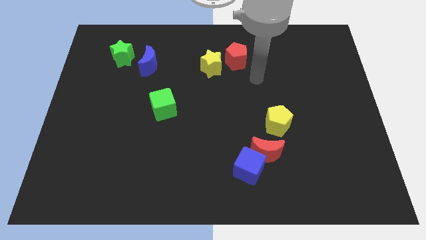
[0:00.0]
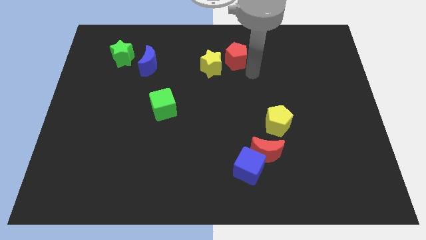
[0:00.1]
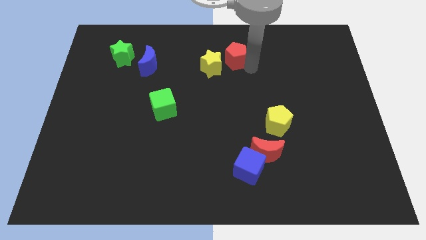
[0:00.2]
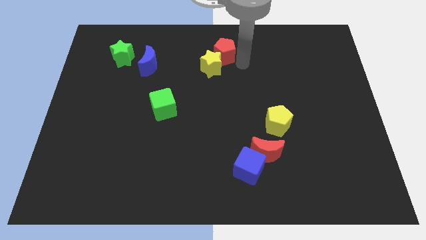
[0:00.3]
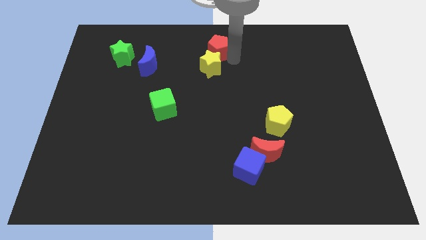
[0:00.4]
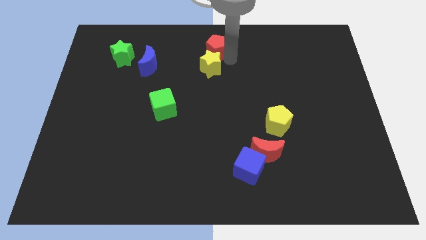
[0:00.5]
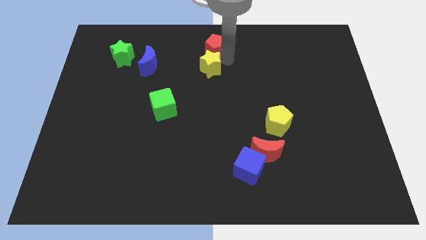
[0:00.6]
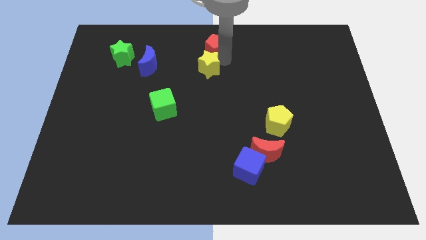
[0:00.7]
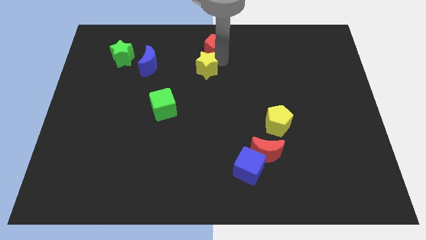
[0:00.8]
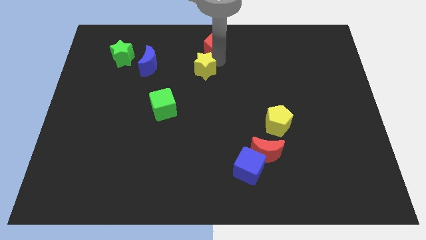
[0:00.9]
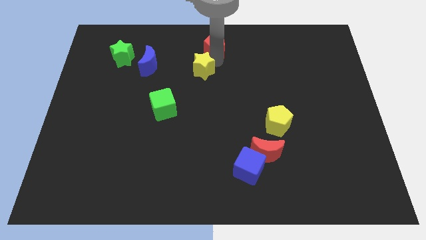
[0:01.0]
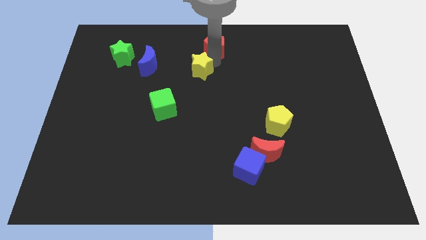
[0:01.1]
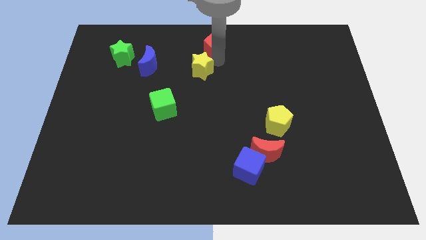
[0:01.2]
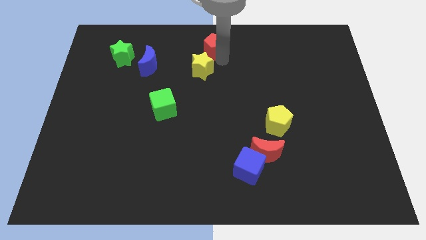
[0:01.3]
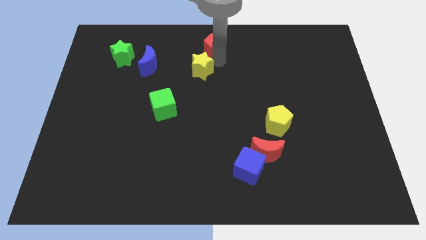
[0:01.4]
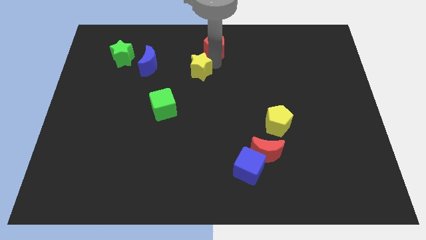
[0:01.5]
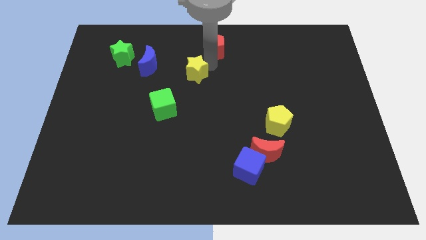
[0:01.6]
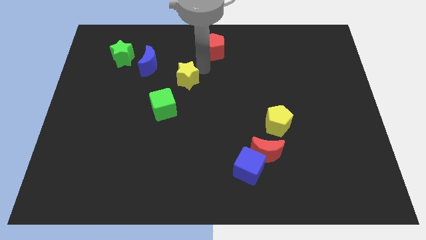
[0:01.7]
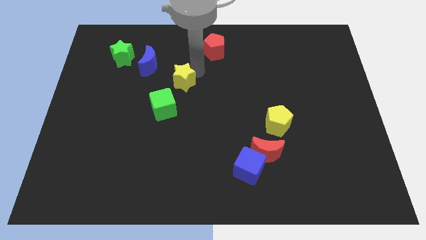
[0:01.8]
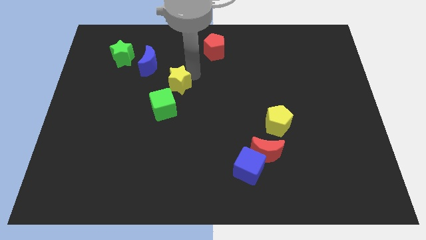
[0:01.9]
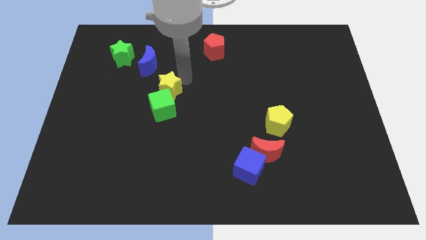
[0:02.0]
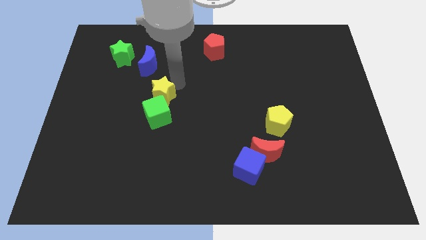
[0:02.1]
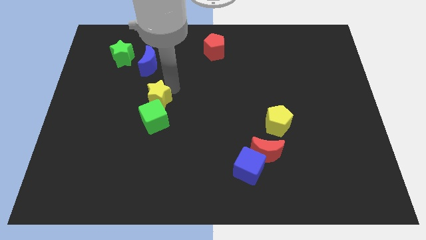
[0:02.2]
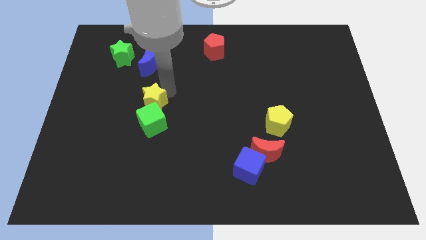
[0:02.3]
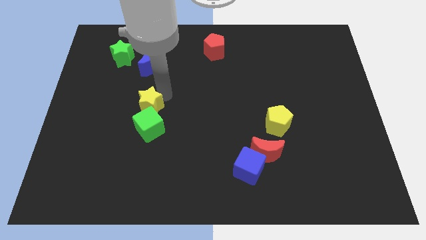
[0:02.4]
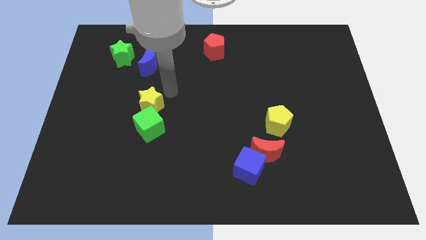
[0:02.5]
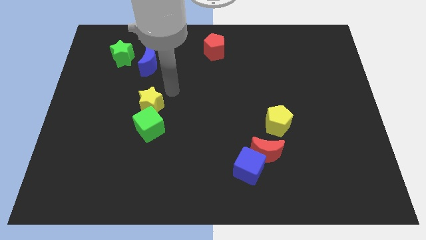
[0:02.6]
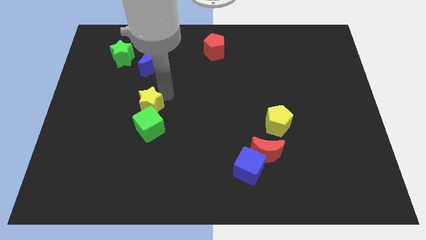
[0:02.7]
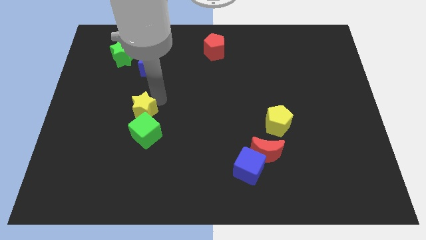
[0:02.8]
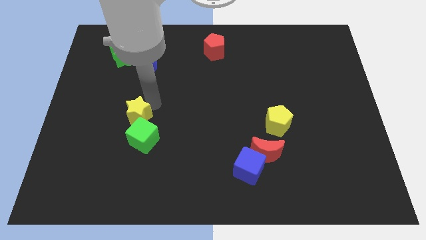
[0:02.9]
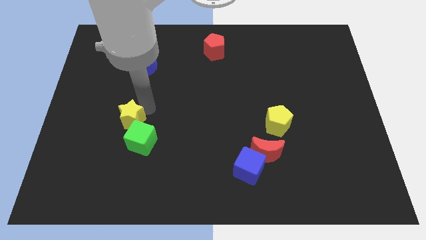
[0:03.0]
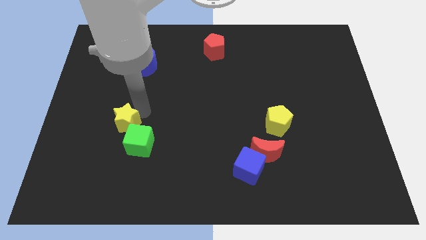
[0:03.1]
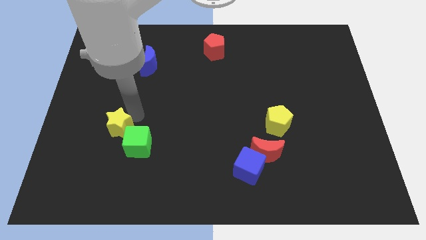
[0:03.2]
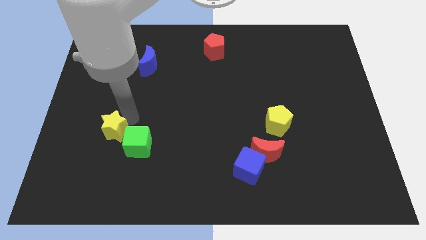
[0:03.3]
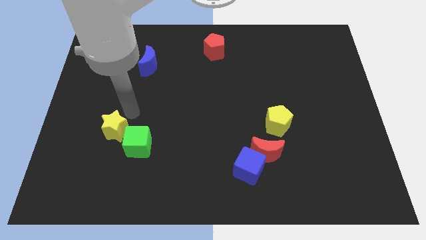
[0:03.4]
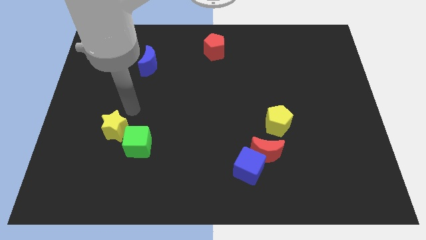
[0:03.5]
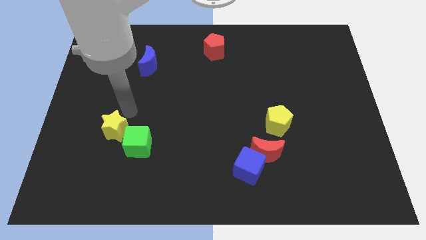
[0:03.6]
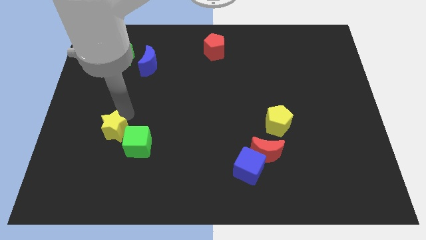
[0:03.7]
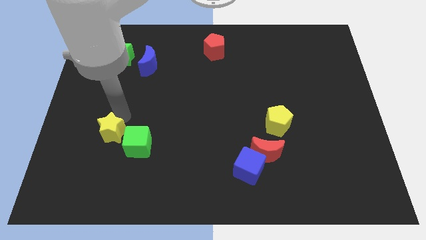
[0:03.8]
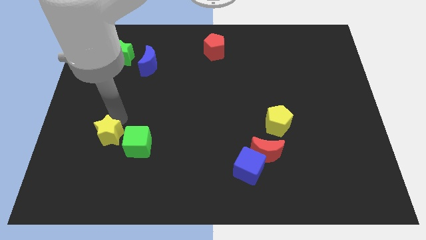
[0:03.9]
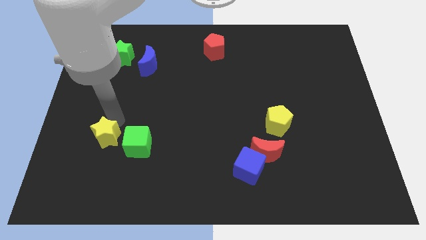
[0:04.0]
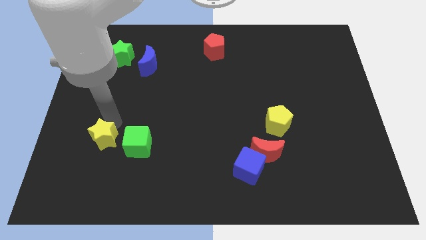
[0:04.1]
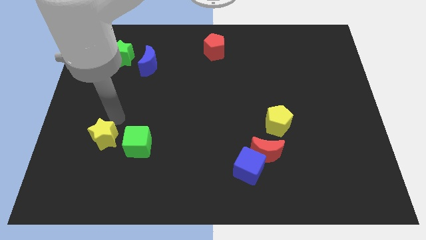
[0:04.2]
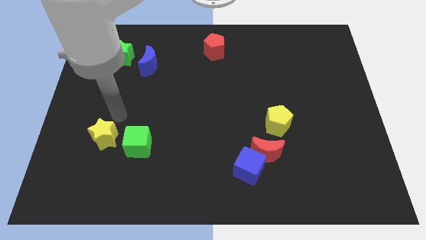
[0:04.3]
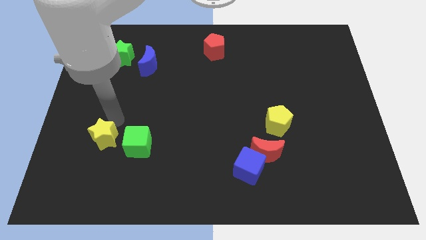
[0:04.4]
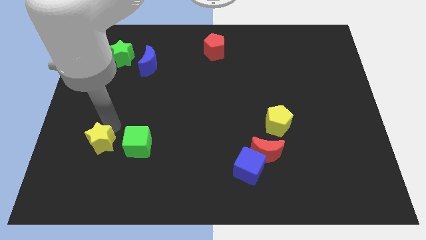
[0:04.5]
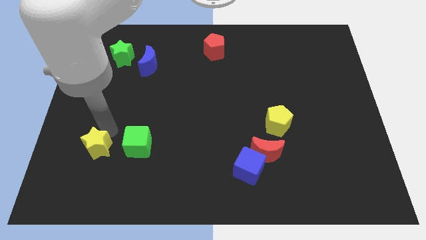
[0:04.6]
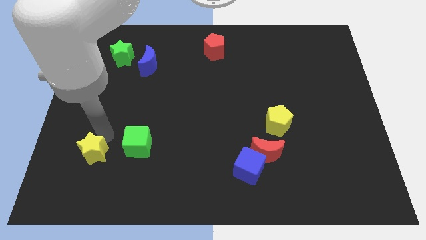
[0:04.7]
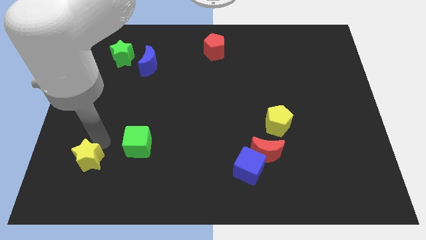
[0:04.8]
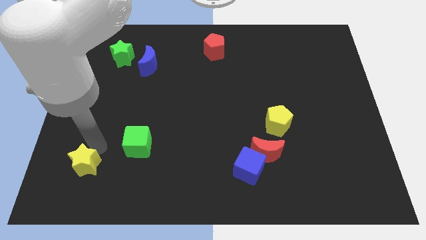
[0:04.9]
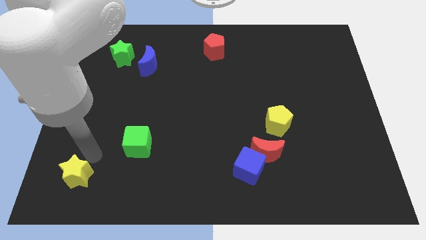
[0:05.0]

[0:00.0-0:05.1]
slide the yellow star to the bottom left

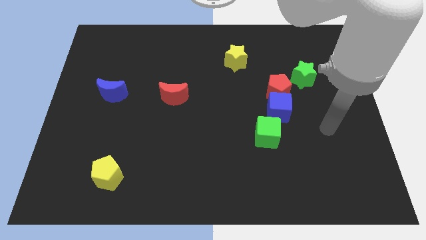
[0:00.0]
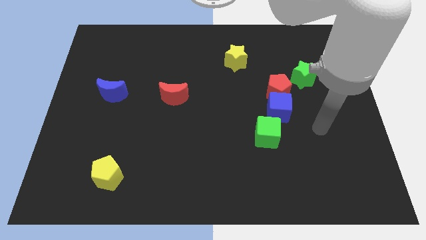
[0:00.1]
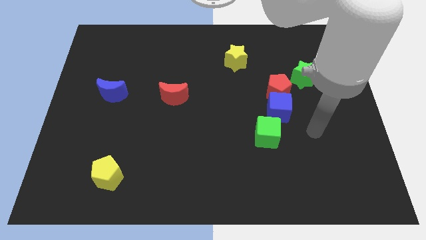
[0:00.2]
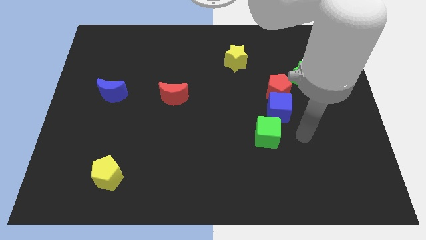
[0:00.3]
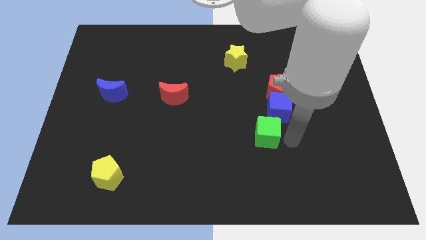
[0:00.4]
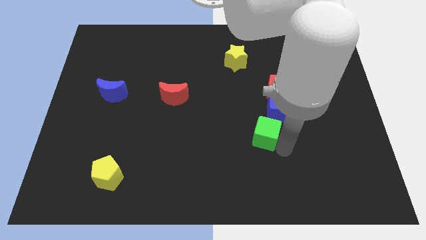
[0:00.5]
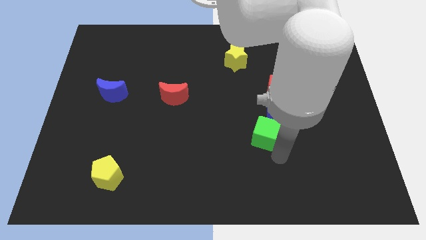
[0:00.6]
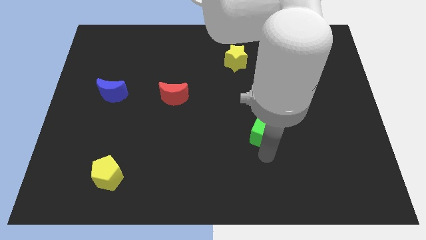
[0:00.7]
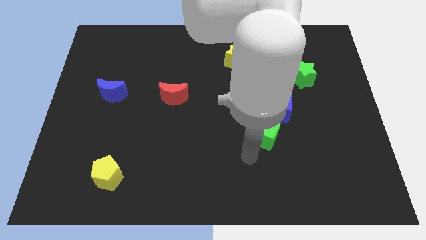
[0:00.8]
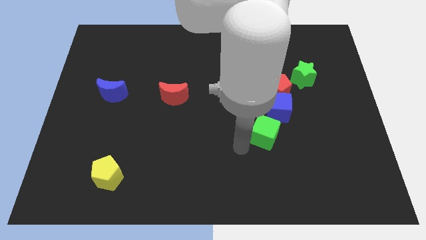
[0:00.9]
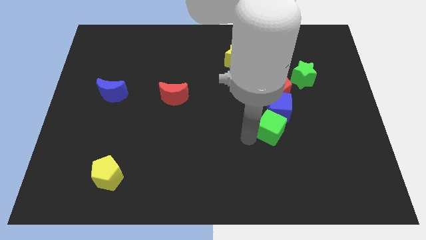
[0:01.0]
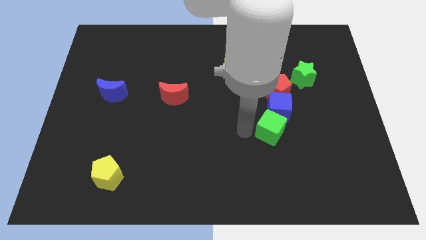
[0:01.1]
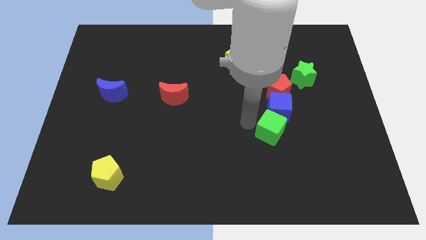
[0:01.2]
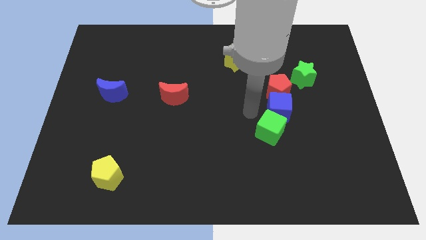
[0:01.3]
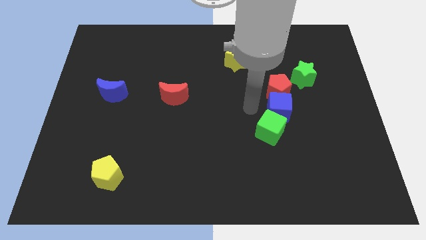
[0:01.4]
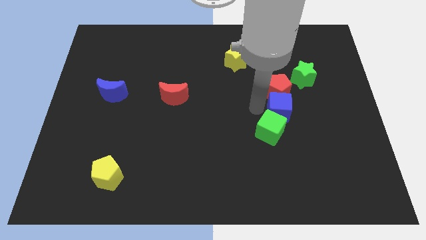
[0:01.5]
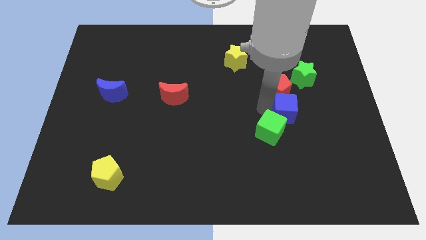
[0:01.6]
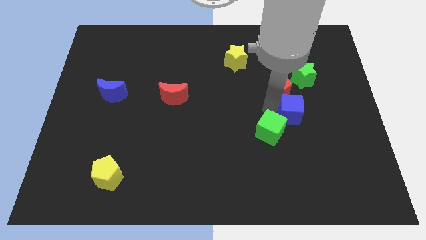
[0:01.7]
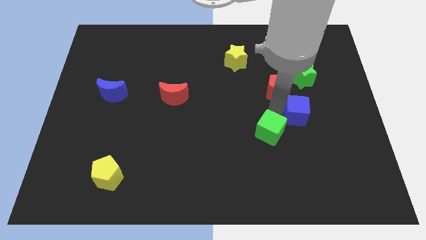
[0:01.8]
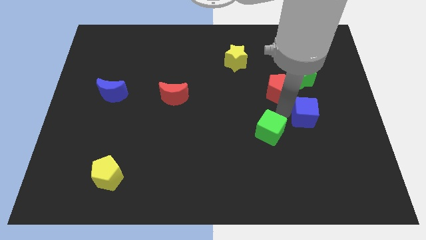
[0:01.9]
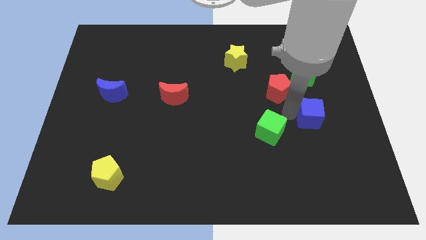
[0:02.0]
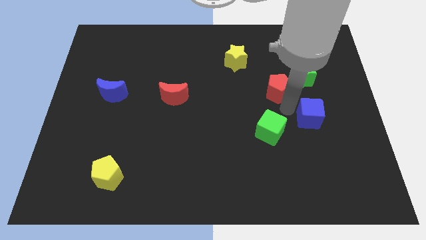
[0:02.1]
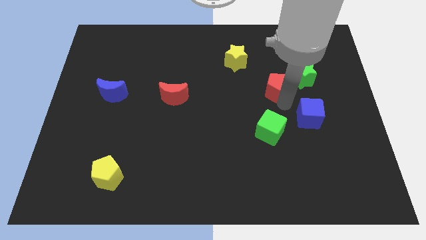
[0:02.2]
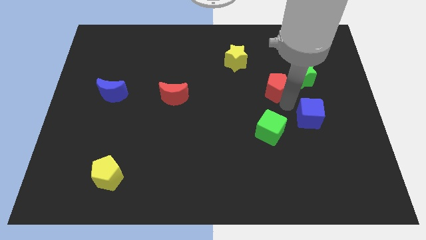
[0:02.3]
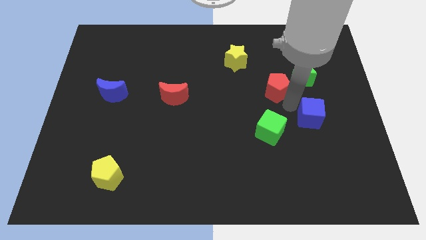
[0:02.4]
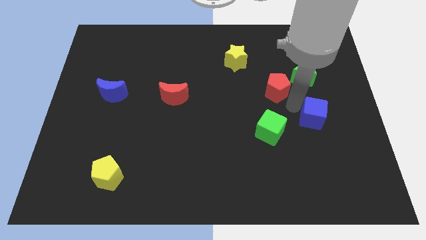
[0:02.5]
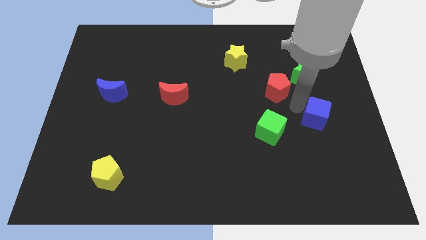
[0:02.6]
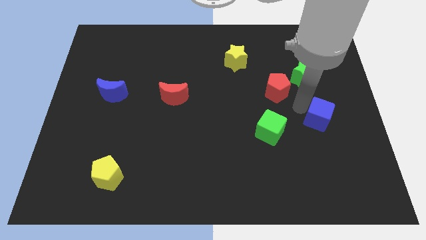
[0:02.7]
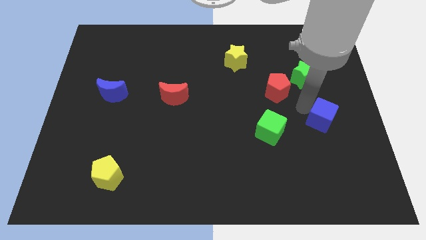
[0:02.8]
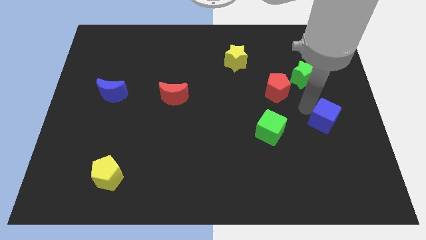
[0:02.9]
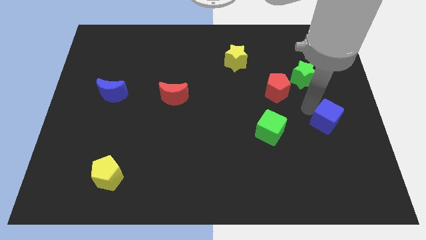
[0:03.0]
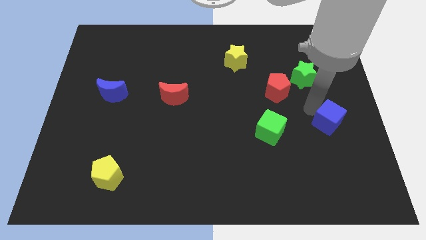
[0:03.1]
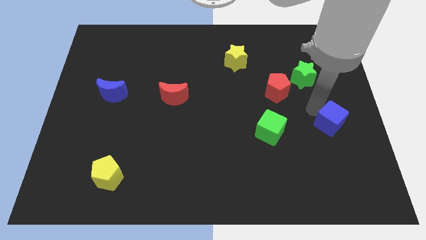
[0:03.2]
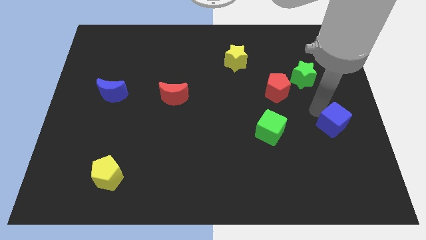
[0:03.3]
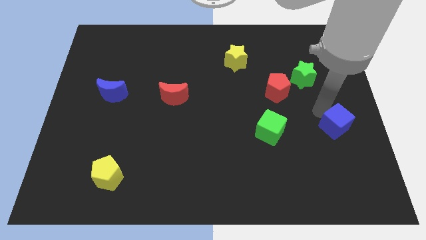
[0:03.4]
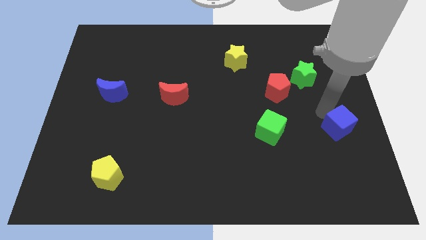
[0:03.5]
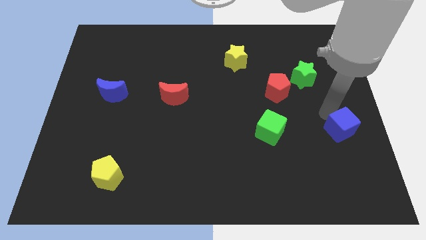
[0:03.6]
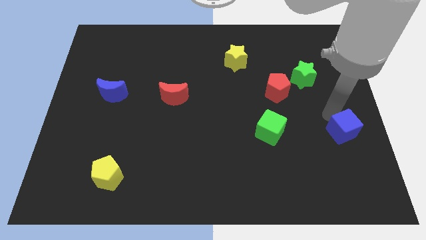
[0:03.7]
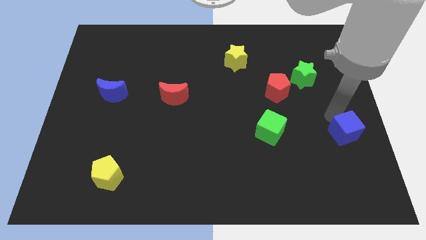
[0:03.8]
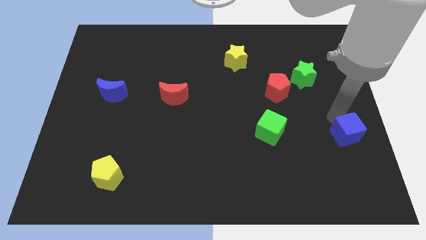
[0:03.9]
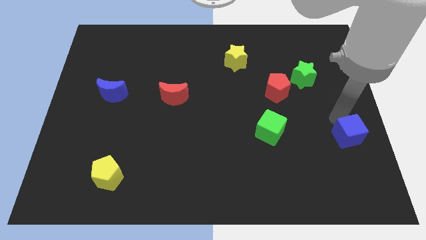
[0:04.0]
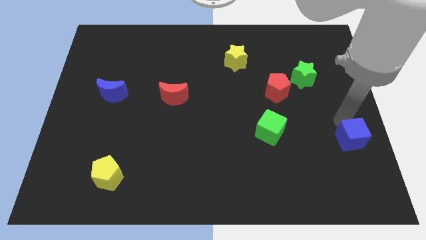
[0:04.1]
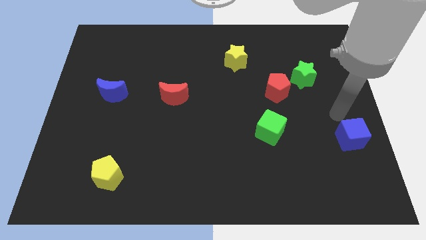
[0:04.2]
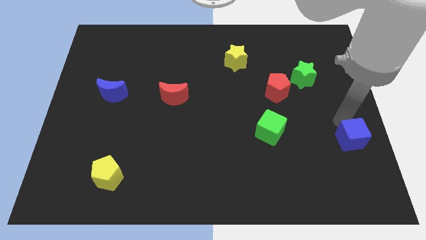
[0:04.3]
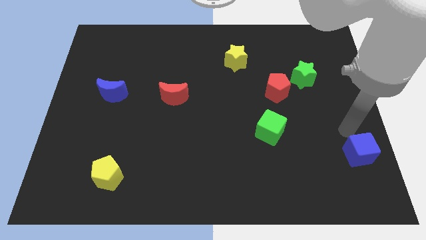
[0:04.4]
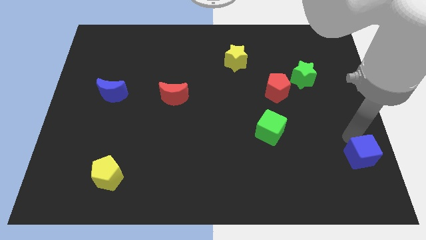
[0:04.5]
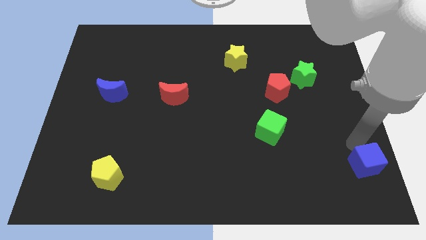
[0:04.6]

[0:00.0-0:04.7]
move the blue cube to the bottom right corner
